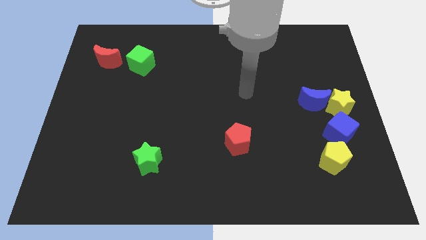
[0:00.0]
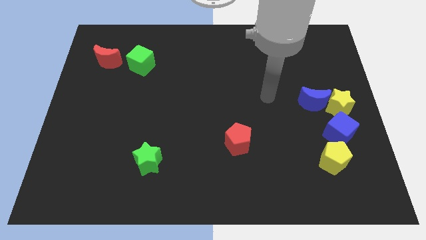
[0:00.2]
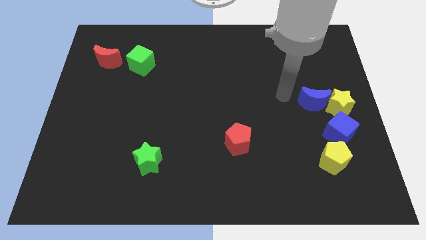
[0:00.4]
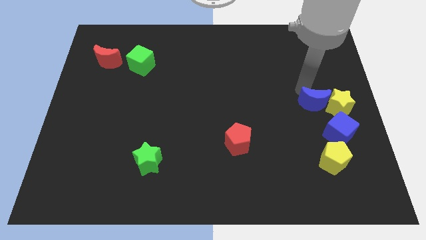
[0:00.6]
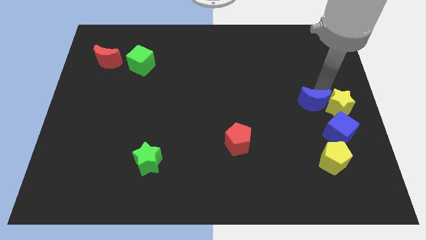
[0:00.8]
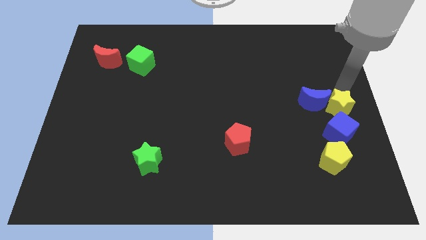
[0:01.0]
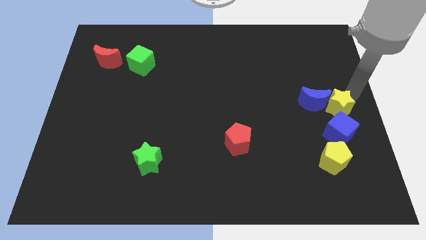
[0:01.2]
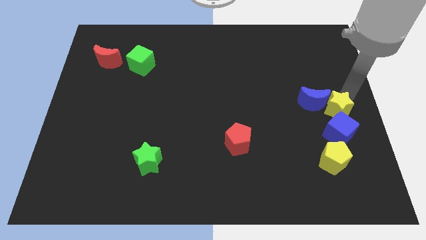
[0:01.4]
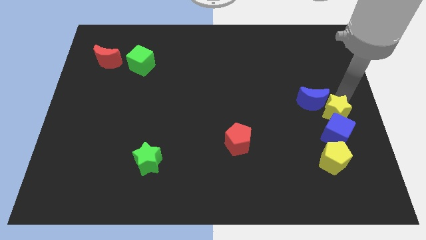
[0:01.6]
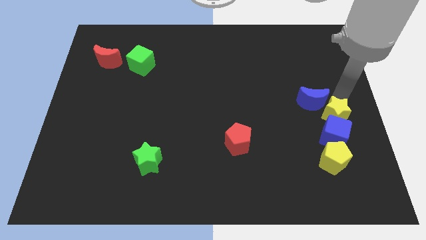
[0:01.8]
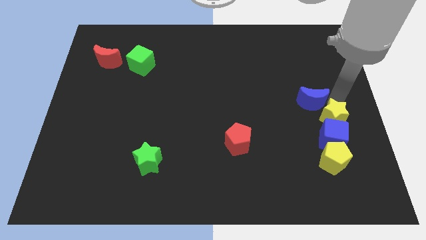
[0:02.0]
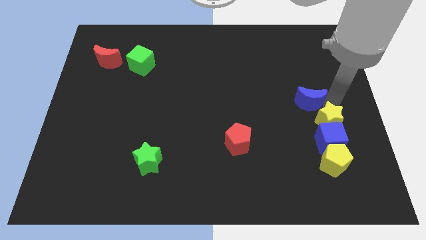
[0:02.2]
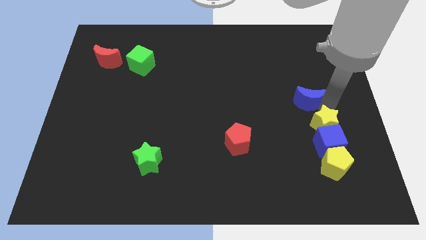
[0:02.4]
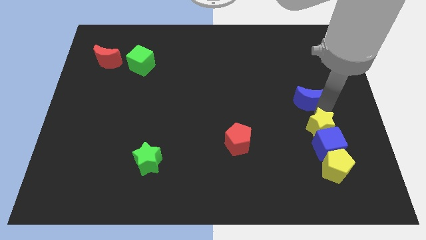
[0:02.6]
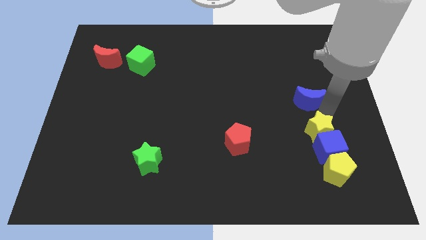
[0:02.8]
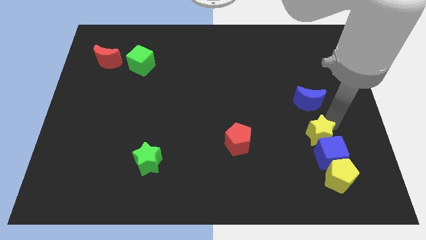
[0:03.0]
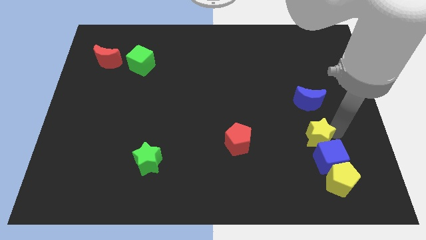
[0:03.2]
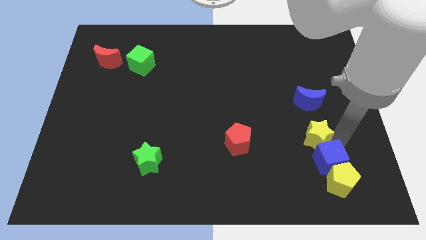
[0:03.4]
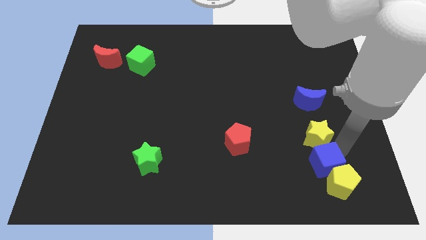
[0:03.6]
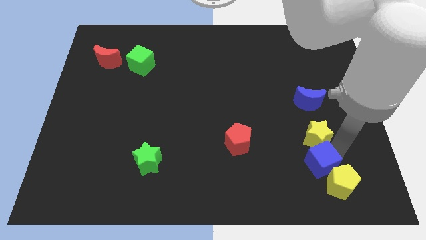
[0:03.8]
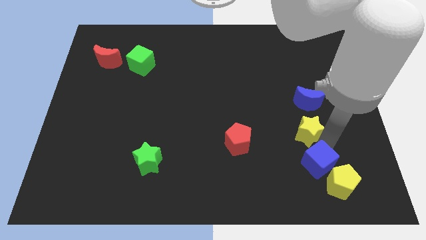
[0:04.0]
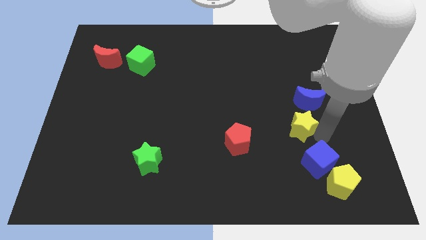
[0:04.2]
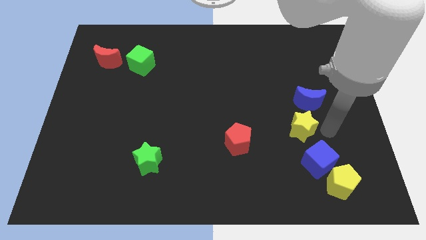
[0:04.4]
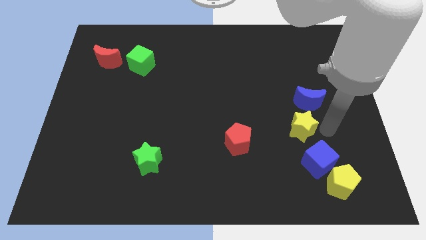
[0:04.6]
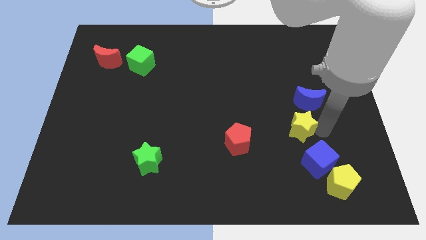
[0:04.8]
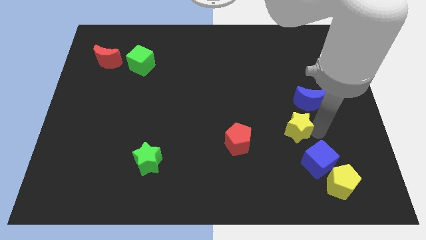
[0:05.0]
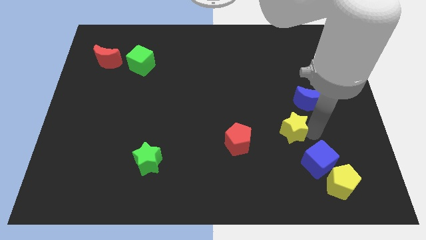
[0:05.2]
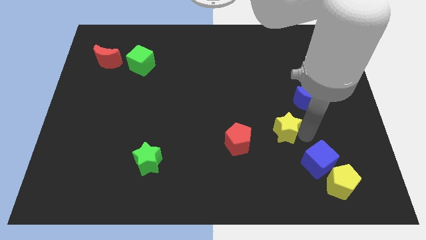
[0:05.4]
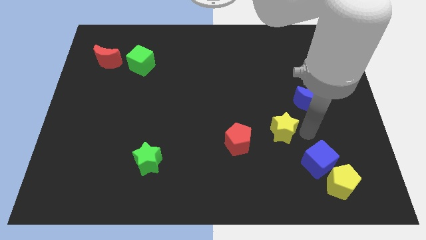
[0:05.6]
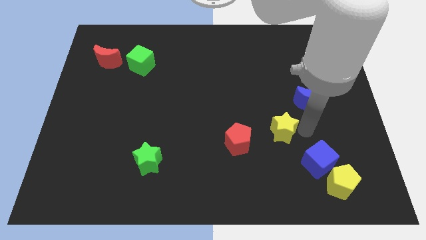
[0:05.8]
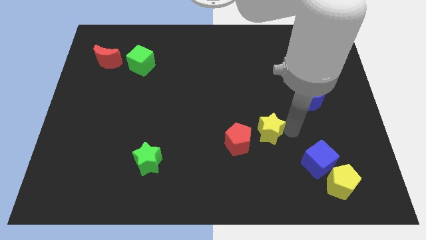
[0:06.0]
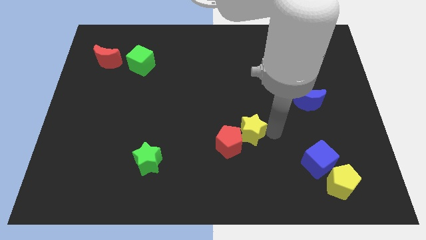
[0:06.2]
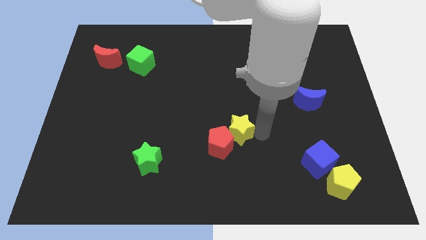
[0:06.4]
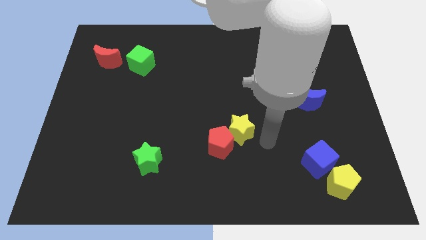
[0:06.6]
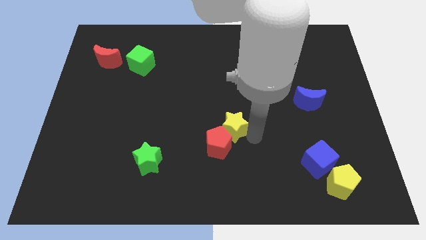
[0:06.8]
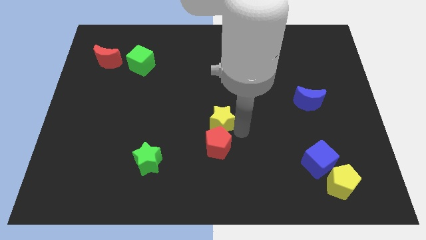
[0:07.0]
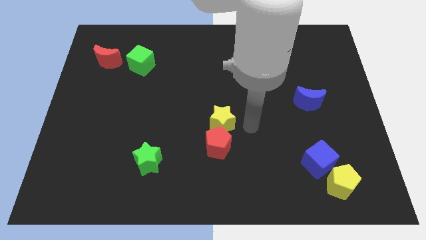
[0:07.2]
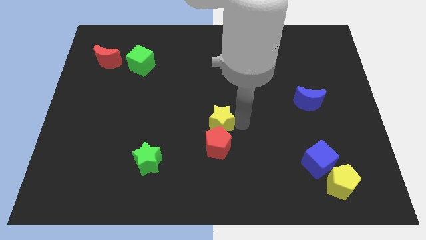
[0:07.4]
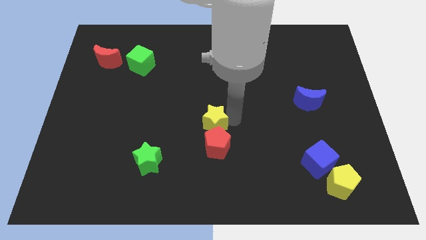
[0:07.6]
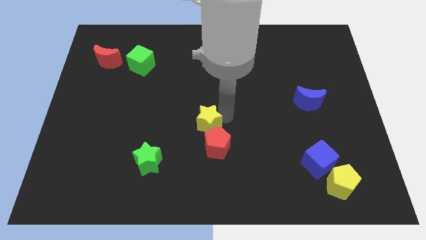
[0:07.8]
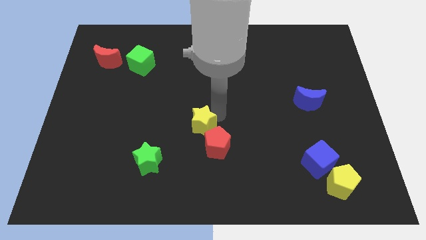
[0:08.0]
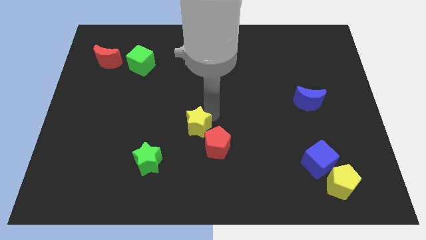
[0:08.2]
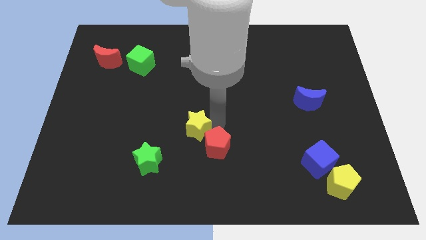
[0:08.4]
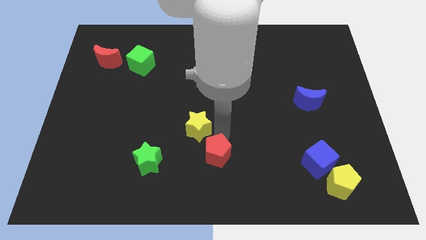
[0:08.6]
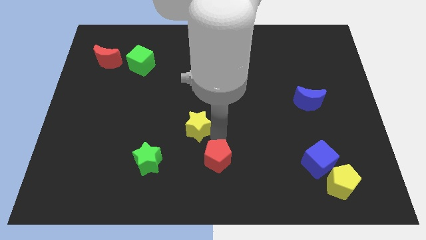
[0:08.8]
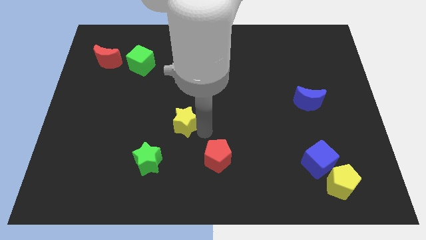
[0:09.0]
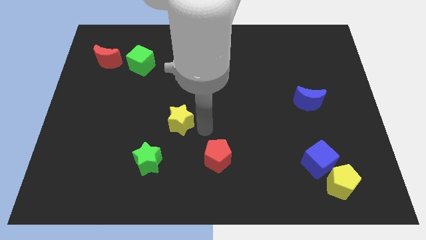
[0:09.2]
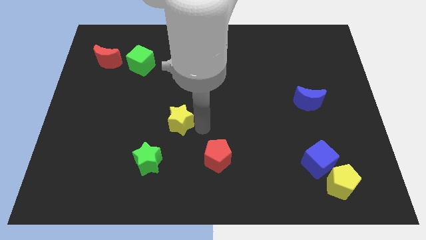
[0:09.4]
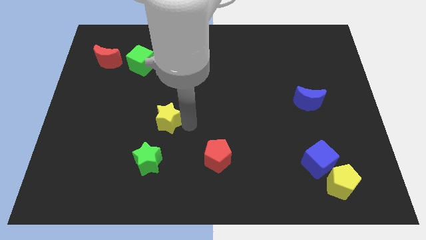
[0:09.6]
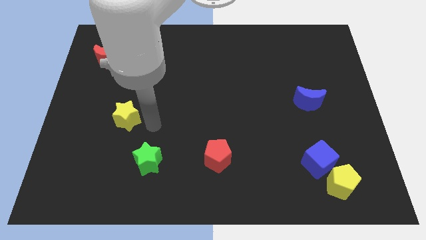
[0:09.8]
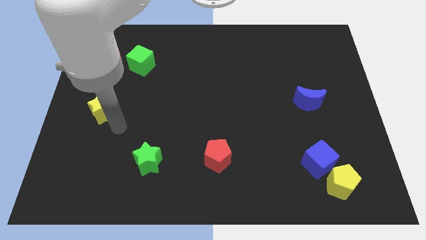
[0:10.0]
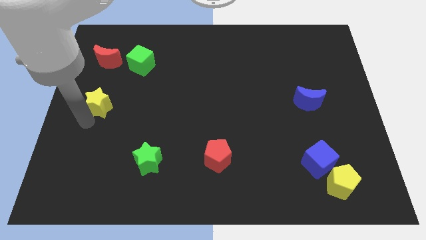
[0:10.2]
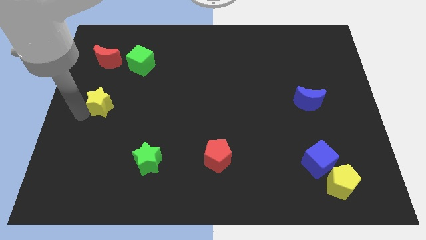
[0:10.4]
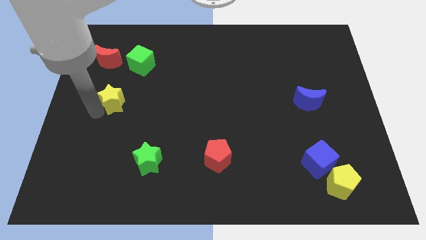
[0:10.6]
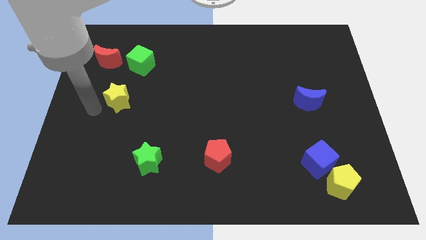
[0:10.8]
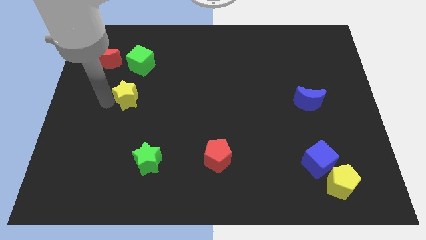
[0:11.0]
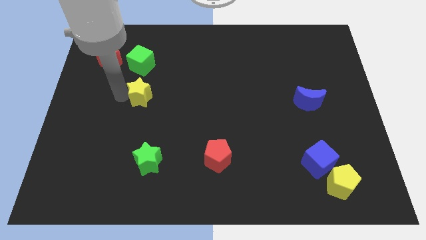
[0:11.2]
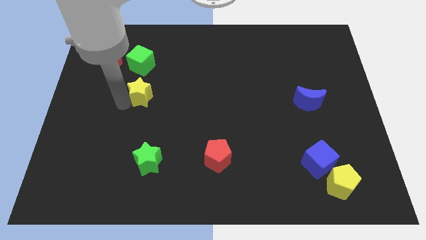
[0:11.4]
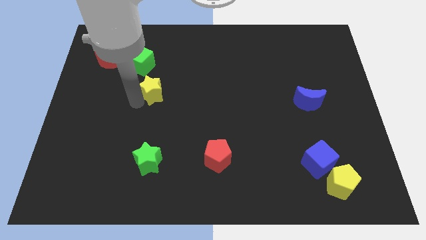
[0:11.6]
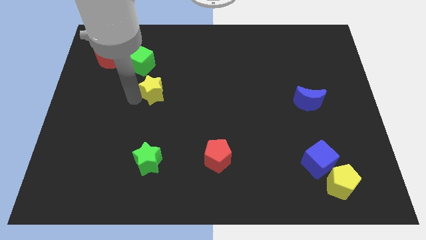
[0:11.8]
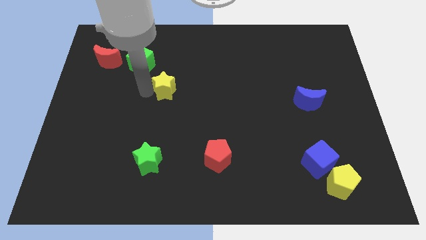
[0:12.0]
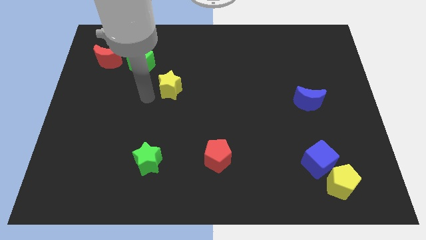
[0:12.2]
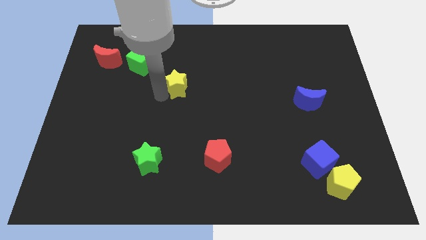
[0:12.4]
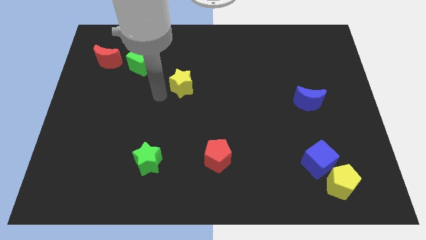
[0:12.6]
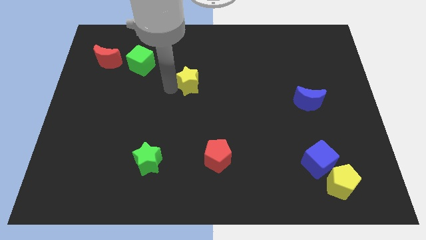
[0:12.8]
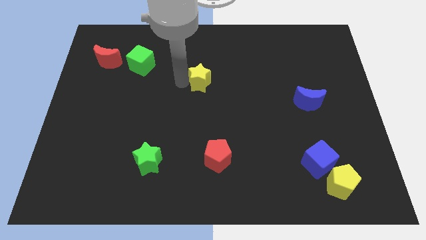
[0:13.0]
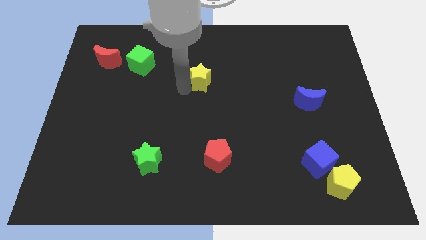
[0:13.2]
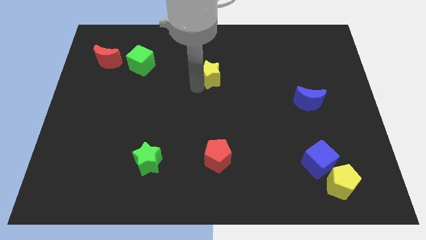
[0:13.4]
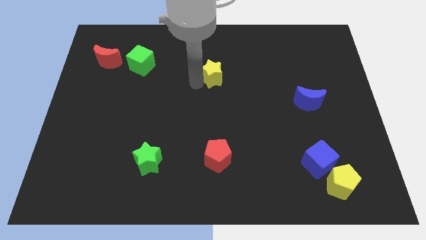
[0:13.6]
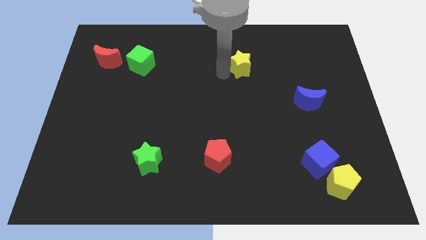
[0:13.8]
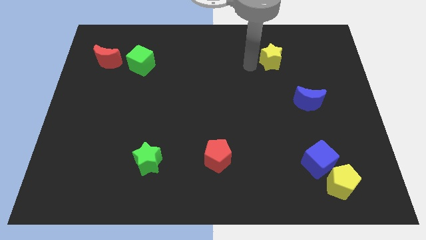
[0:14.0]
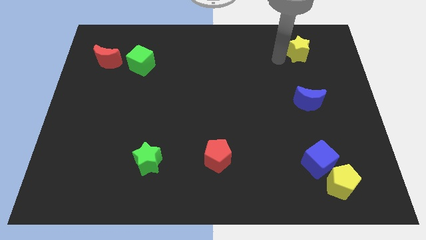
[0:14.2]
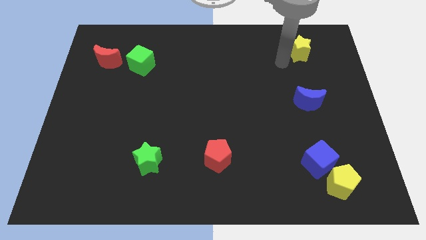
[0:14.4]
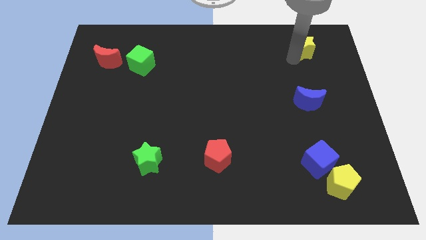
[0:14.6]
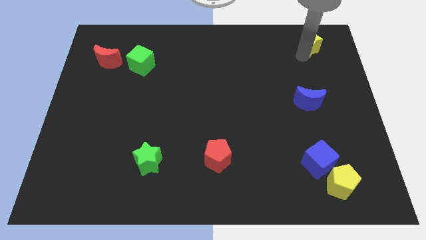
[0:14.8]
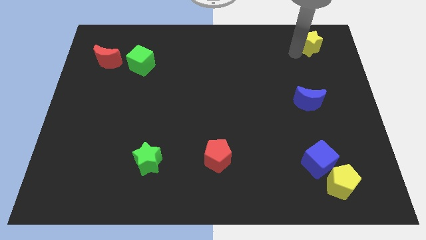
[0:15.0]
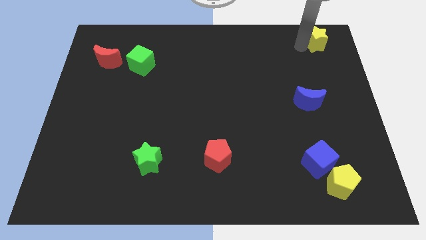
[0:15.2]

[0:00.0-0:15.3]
slide the yellow star to the upper right corner

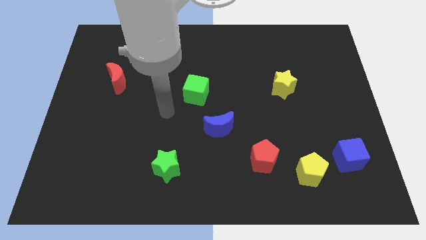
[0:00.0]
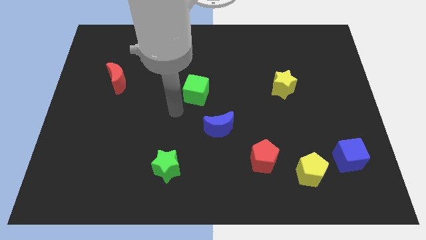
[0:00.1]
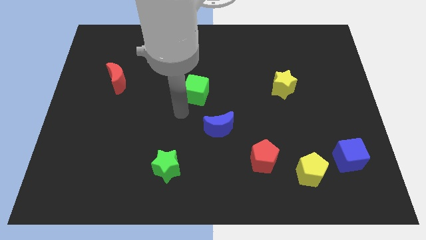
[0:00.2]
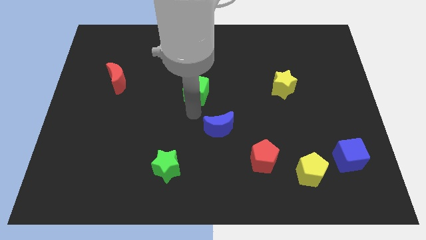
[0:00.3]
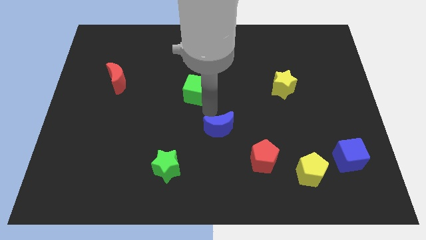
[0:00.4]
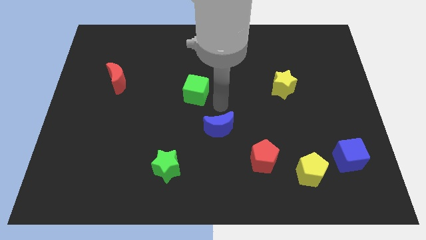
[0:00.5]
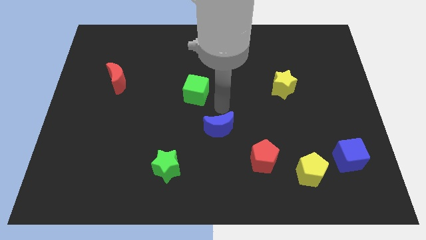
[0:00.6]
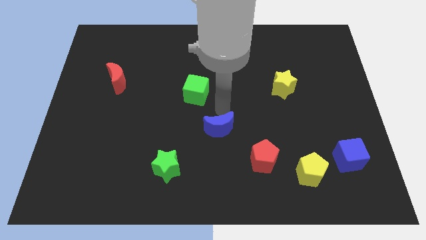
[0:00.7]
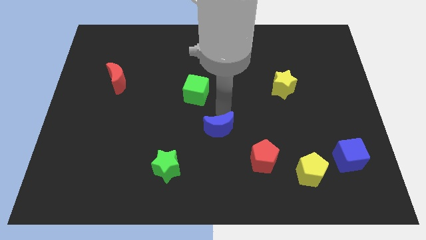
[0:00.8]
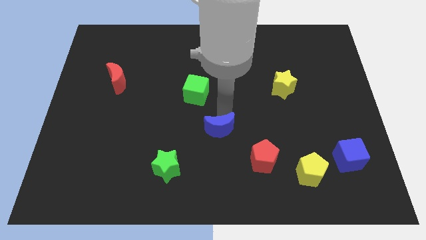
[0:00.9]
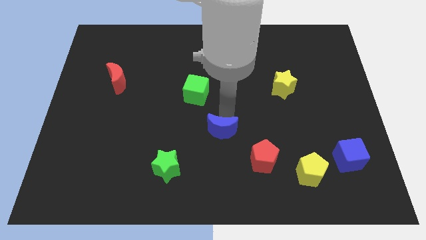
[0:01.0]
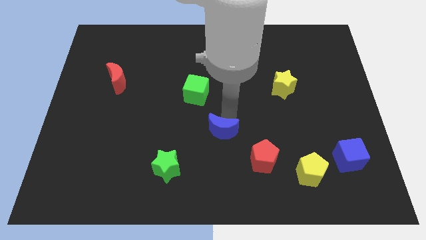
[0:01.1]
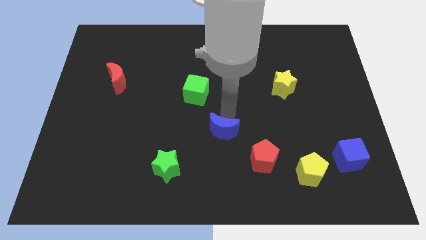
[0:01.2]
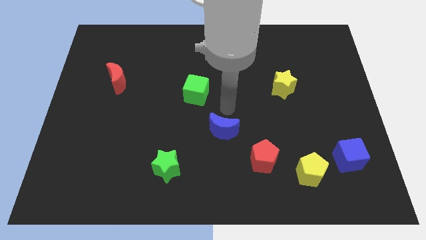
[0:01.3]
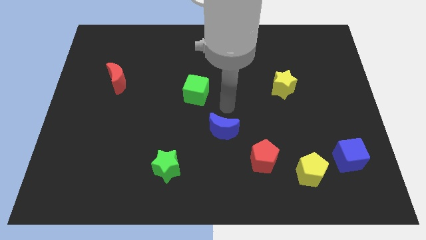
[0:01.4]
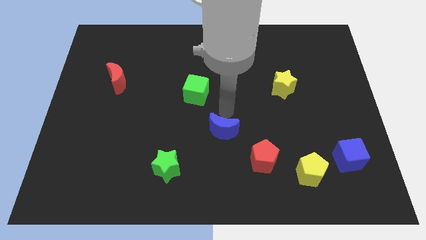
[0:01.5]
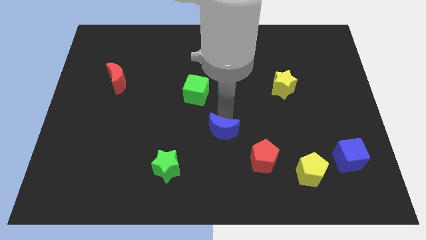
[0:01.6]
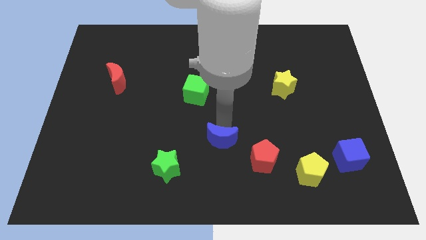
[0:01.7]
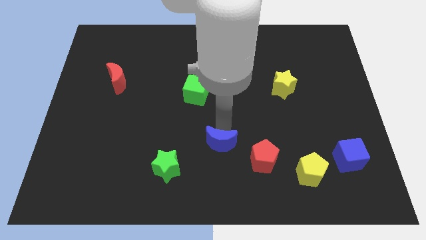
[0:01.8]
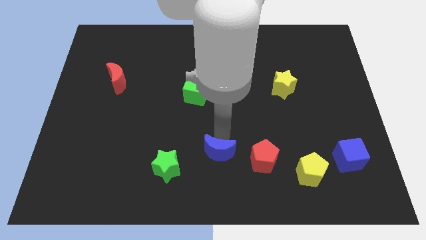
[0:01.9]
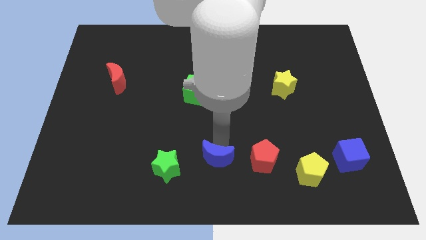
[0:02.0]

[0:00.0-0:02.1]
slide the blue moon to the bottom
